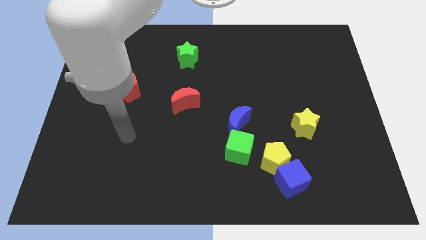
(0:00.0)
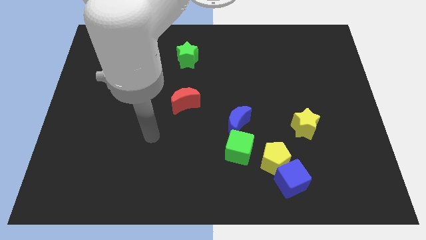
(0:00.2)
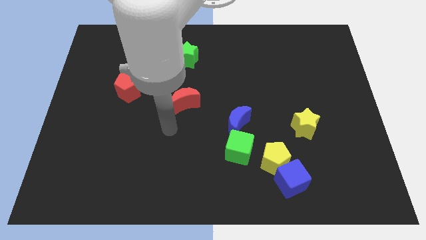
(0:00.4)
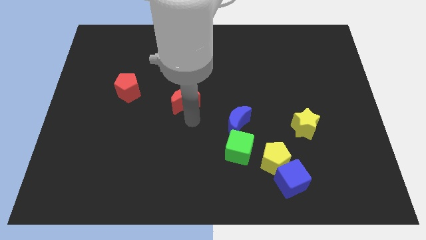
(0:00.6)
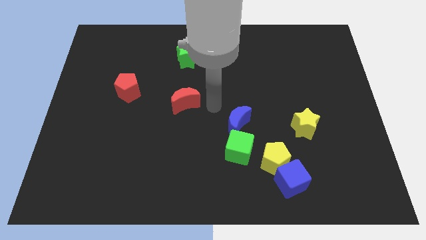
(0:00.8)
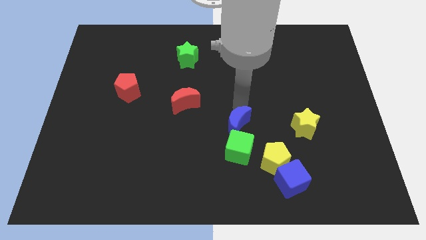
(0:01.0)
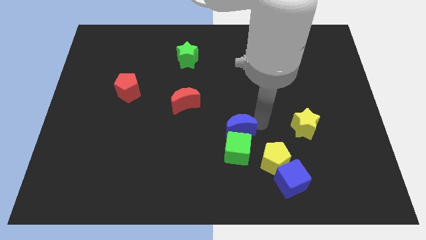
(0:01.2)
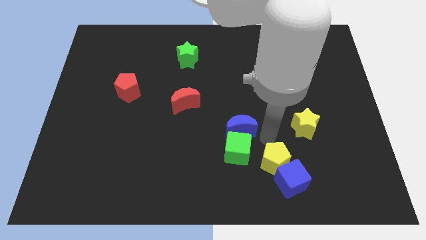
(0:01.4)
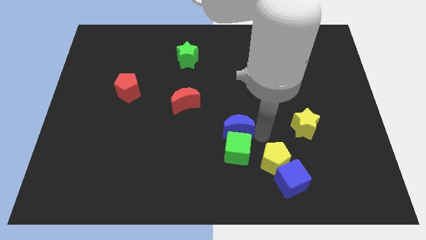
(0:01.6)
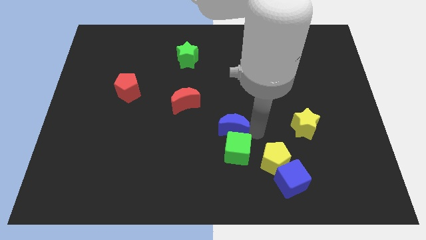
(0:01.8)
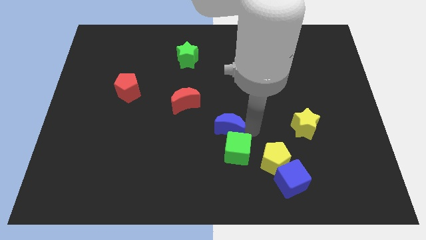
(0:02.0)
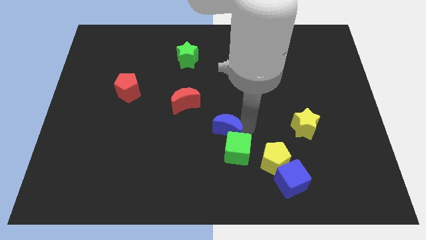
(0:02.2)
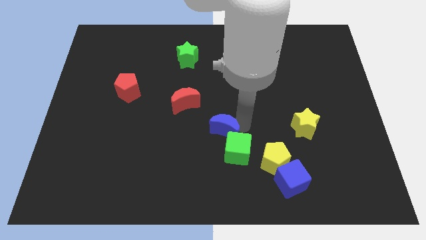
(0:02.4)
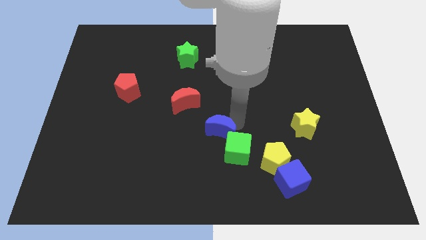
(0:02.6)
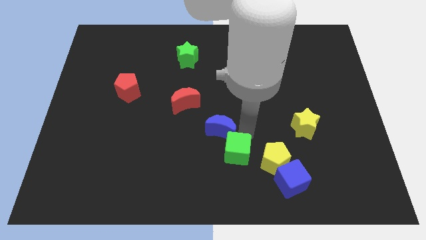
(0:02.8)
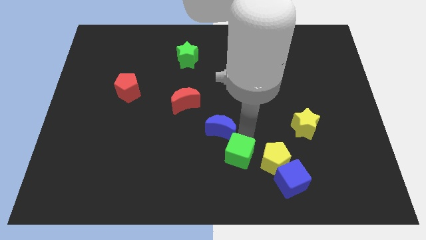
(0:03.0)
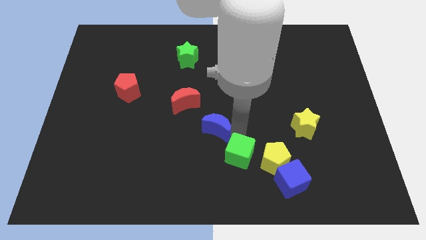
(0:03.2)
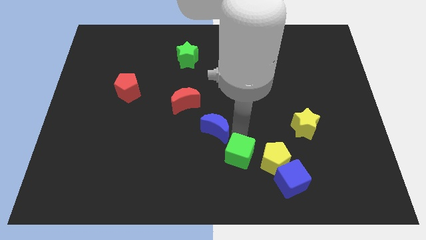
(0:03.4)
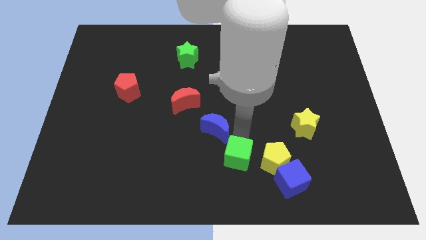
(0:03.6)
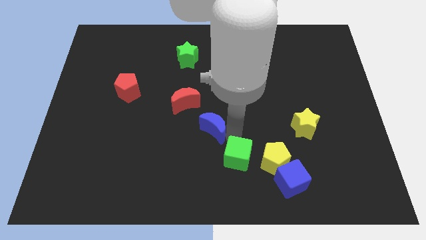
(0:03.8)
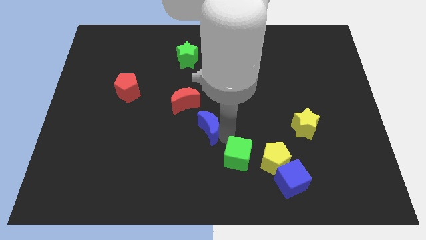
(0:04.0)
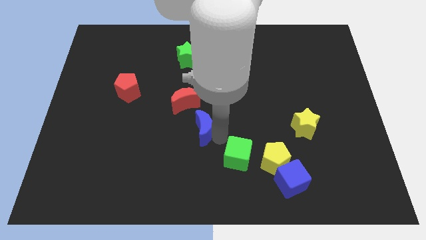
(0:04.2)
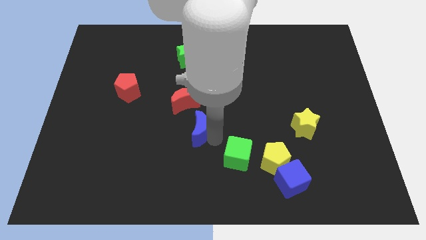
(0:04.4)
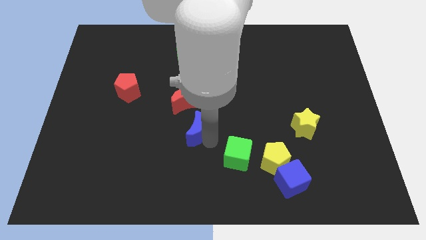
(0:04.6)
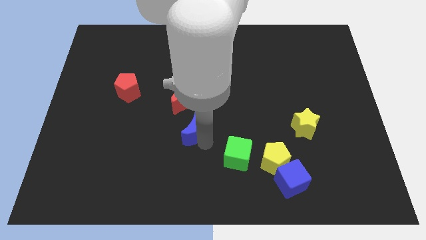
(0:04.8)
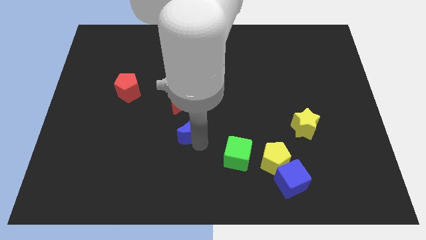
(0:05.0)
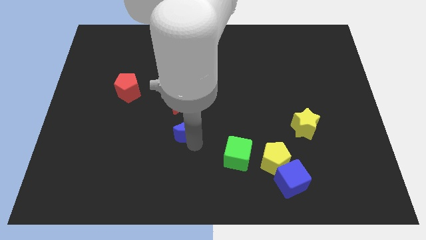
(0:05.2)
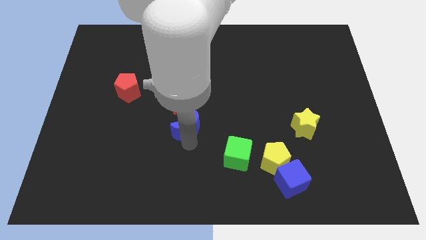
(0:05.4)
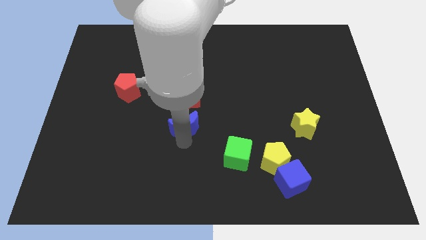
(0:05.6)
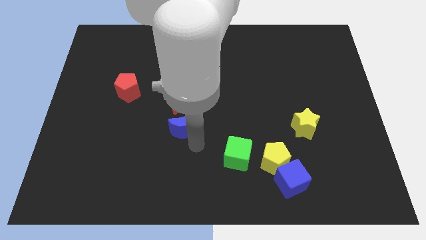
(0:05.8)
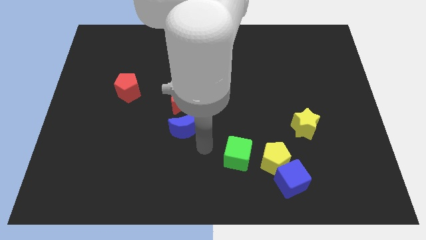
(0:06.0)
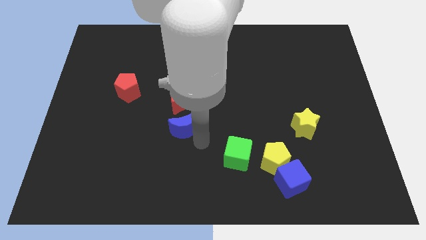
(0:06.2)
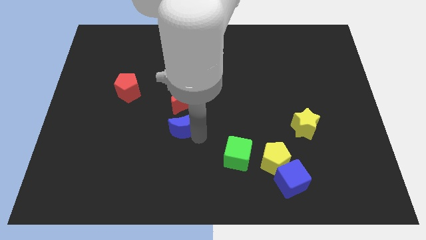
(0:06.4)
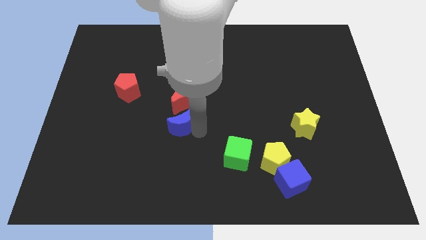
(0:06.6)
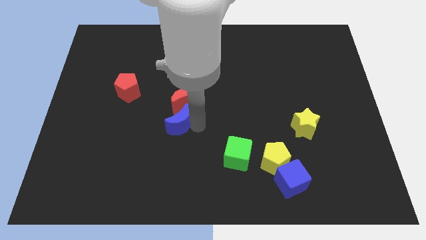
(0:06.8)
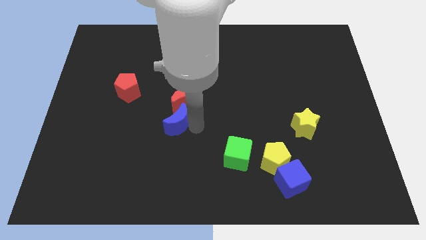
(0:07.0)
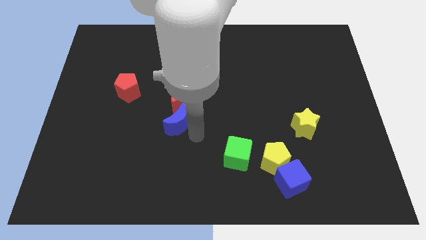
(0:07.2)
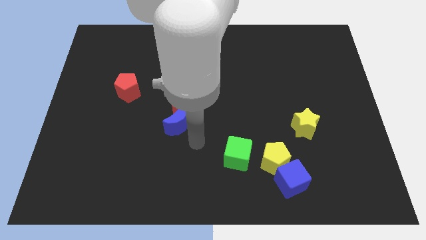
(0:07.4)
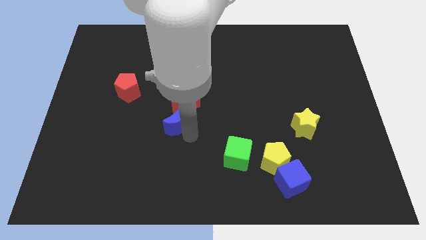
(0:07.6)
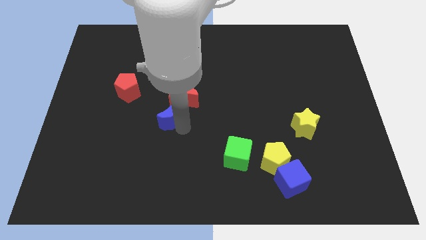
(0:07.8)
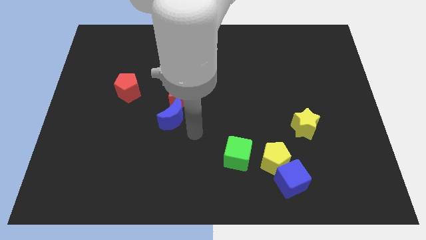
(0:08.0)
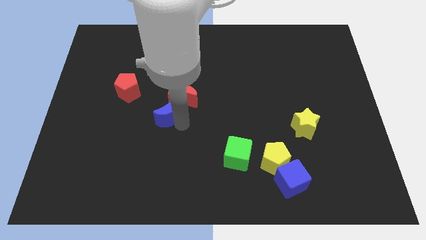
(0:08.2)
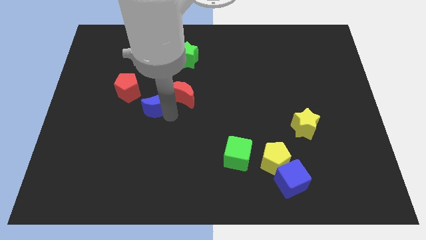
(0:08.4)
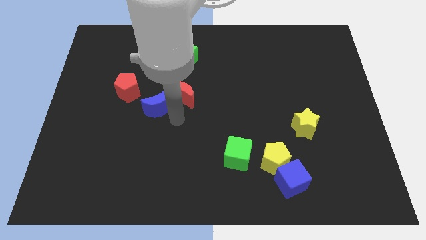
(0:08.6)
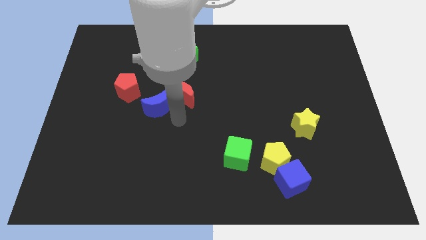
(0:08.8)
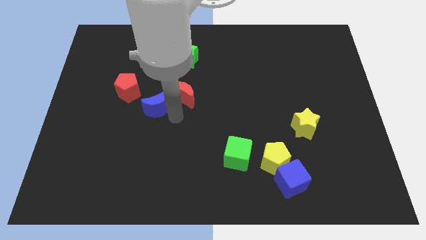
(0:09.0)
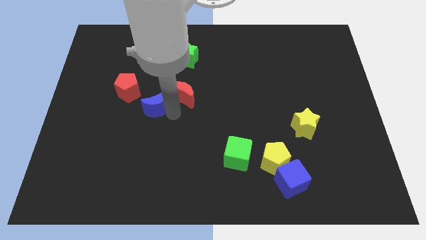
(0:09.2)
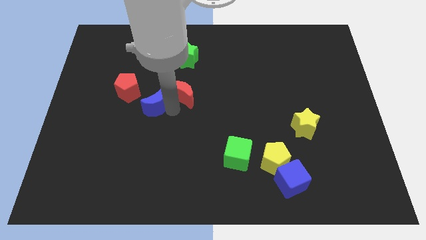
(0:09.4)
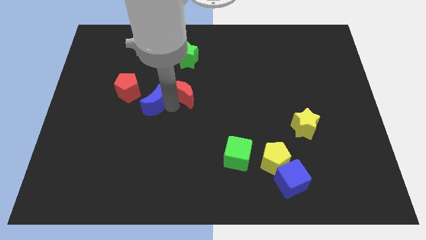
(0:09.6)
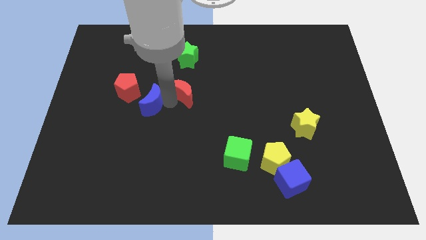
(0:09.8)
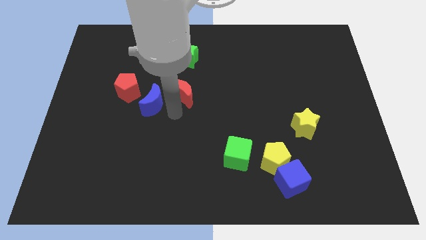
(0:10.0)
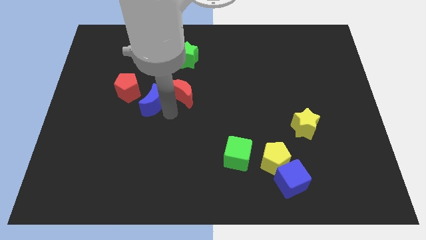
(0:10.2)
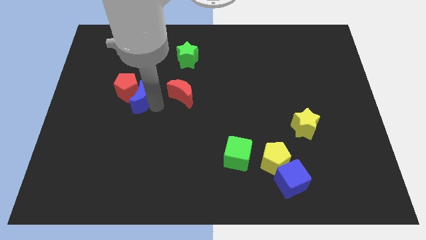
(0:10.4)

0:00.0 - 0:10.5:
put the blue moon to the red pentagon

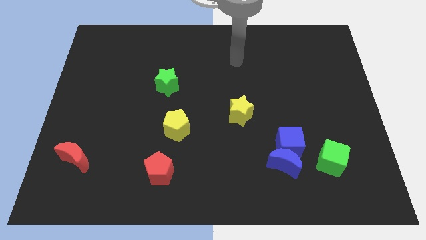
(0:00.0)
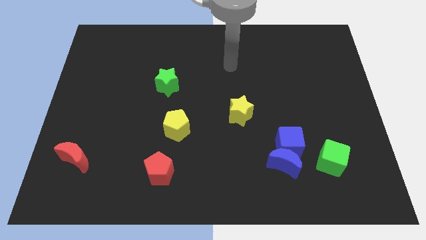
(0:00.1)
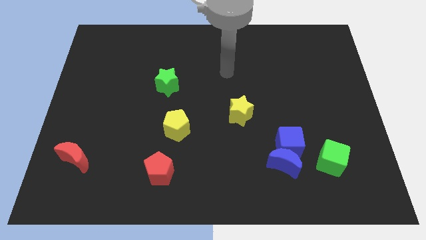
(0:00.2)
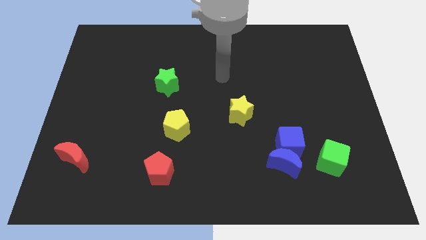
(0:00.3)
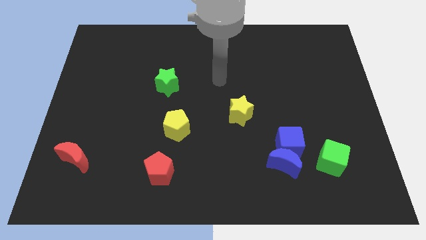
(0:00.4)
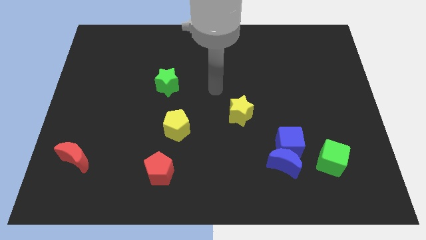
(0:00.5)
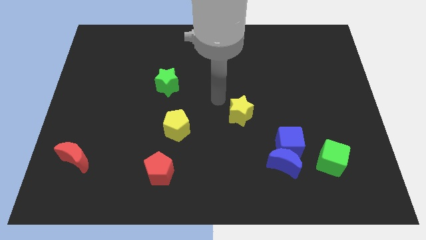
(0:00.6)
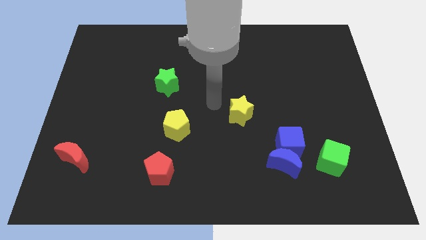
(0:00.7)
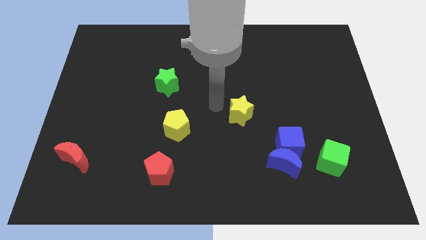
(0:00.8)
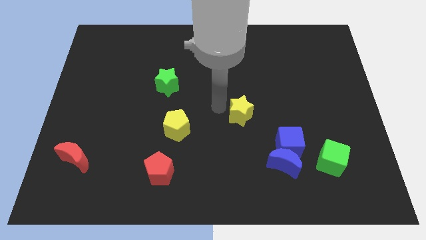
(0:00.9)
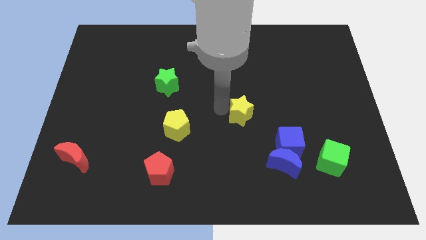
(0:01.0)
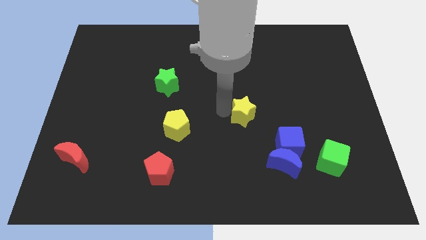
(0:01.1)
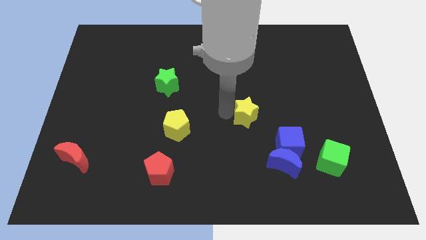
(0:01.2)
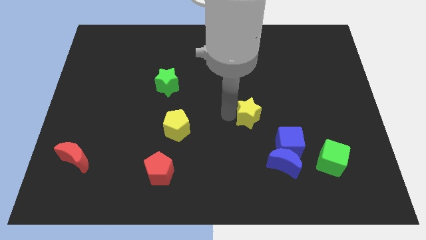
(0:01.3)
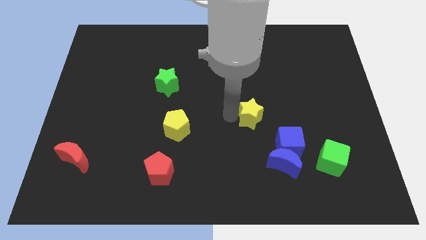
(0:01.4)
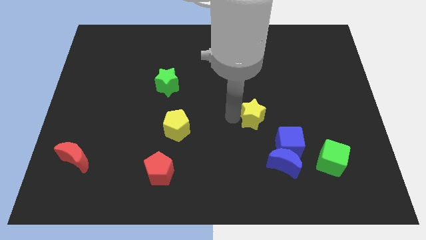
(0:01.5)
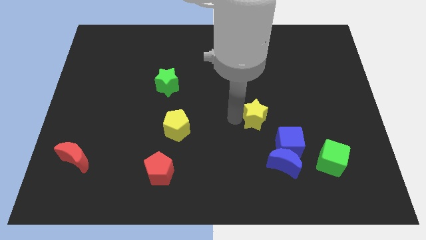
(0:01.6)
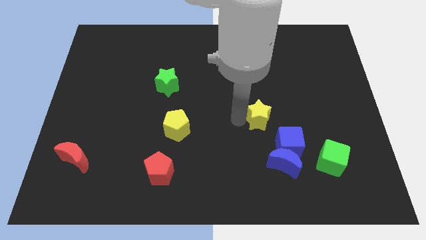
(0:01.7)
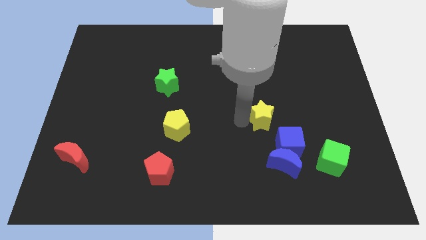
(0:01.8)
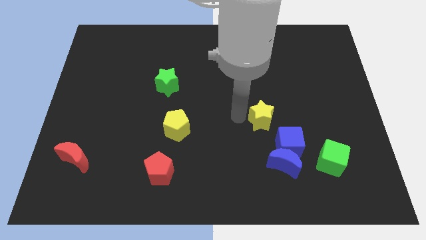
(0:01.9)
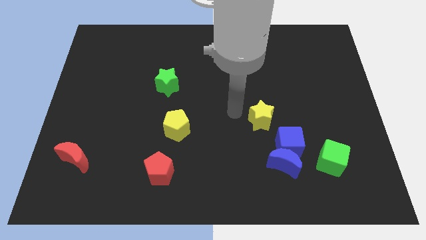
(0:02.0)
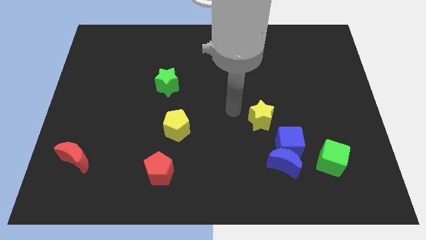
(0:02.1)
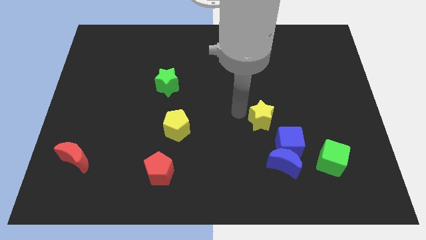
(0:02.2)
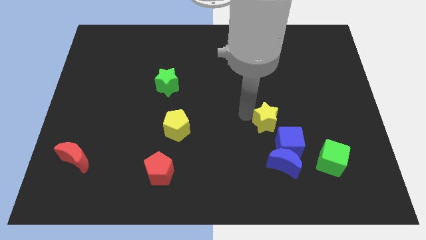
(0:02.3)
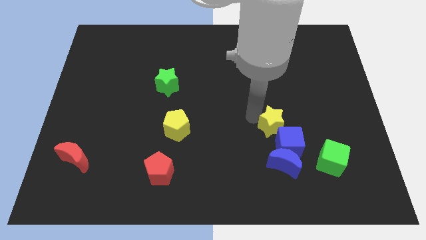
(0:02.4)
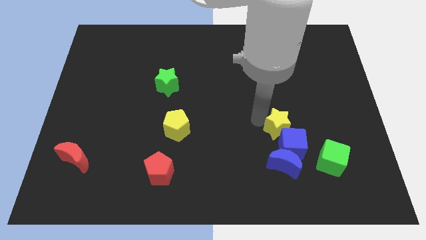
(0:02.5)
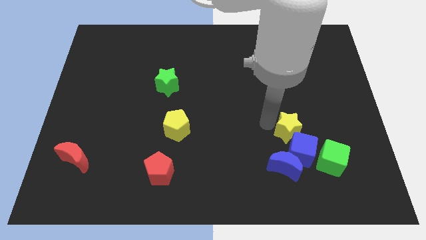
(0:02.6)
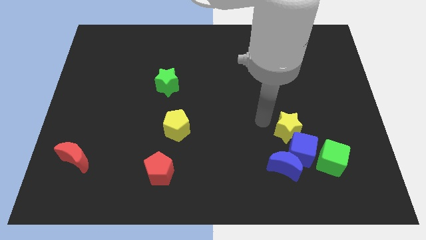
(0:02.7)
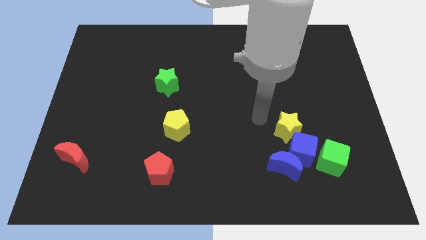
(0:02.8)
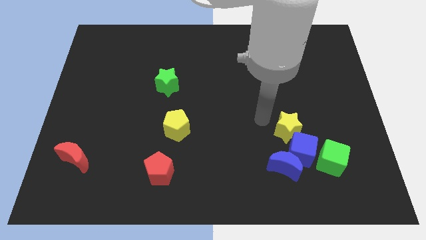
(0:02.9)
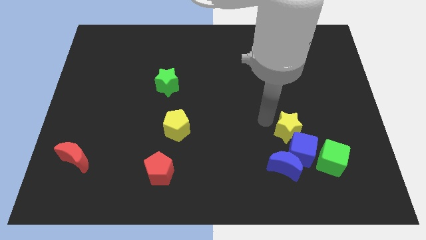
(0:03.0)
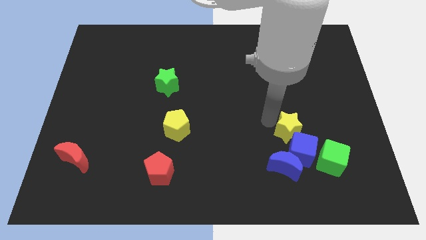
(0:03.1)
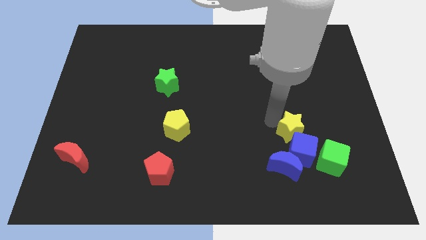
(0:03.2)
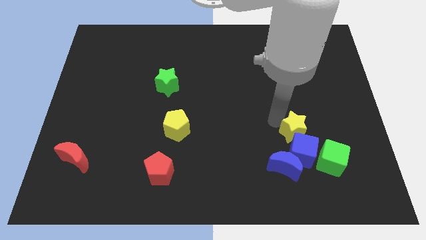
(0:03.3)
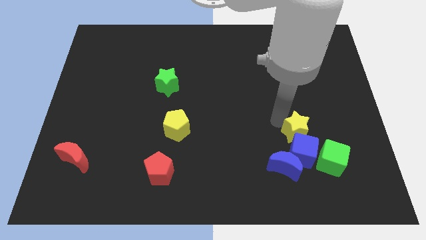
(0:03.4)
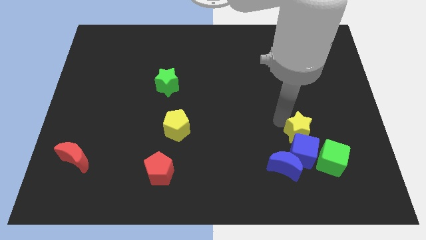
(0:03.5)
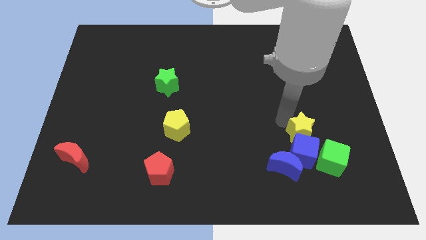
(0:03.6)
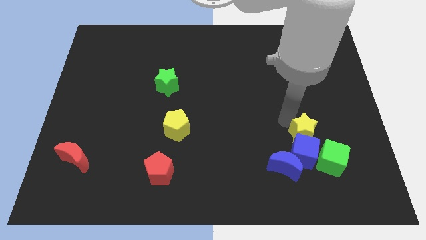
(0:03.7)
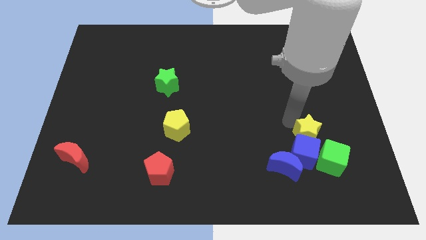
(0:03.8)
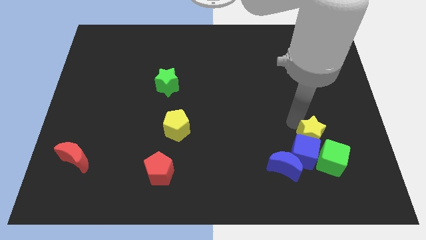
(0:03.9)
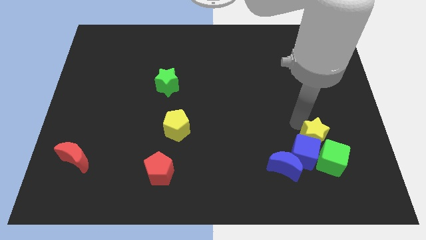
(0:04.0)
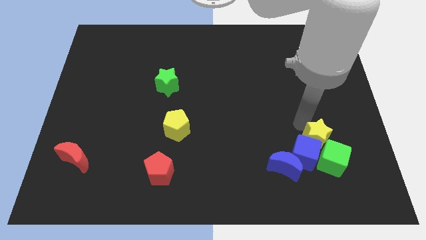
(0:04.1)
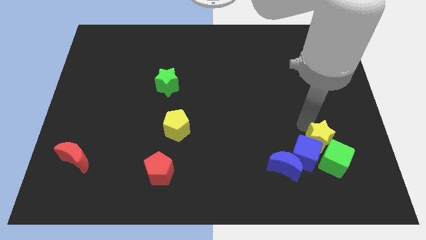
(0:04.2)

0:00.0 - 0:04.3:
push the yellow star towards the green cube
